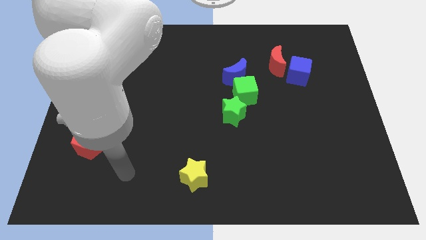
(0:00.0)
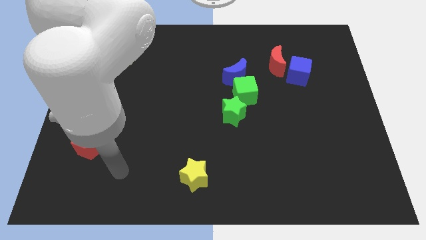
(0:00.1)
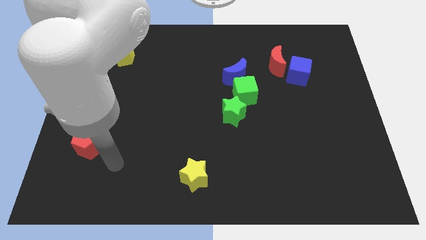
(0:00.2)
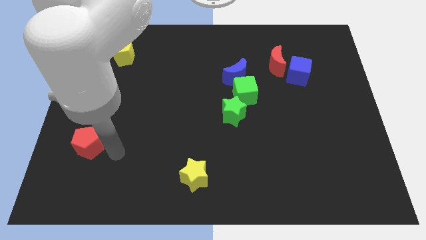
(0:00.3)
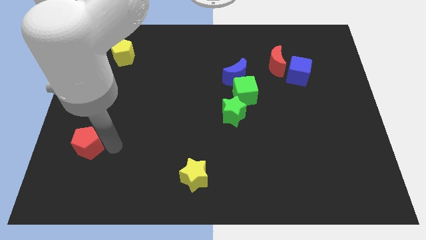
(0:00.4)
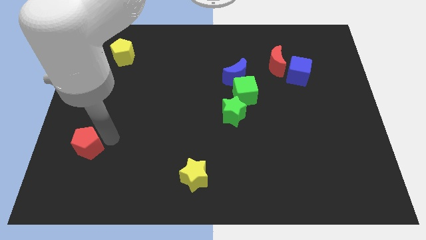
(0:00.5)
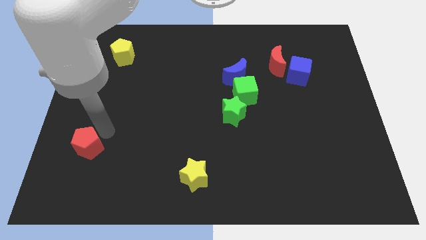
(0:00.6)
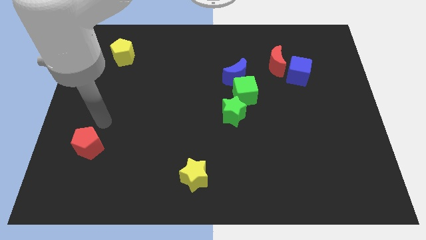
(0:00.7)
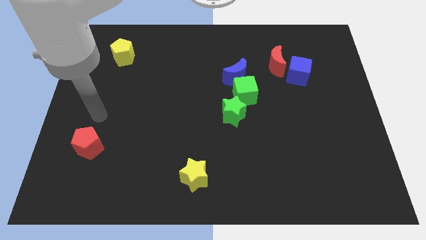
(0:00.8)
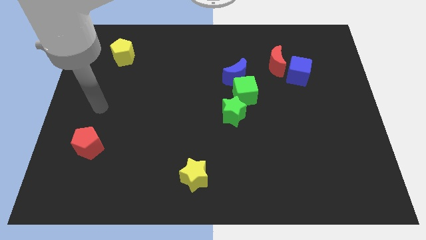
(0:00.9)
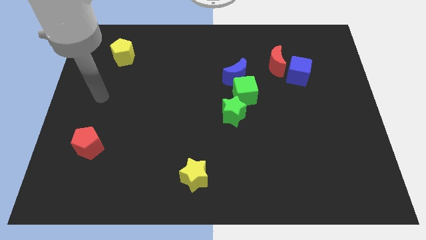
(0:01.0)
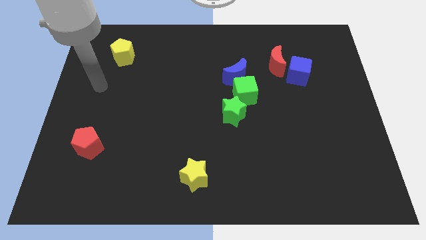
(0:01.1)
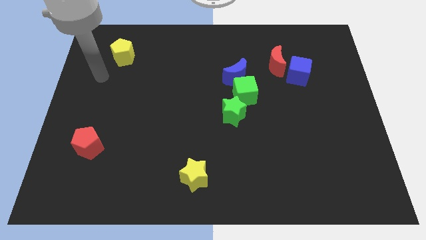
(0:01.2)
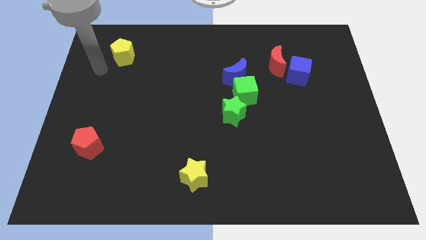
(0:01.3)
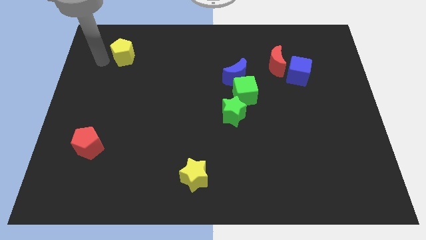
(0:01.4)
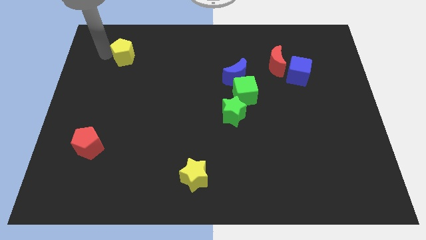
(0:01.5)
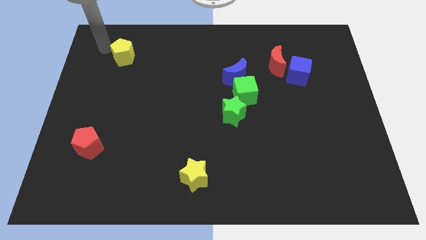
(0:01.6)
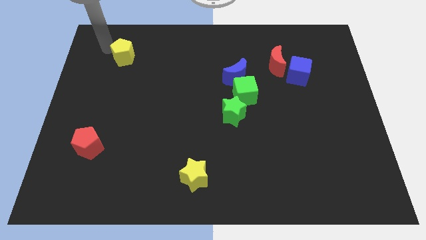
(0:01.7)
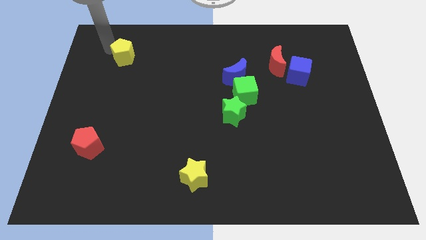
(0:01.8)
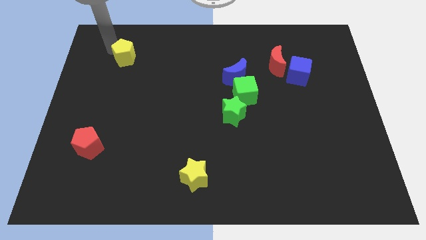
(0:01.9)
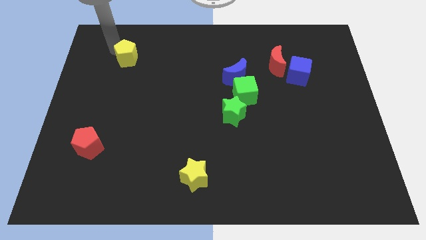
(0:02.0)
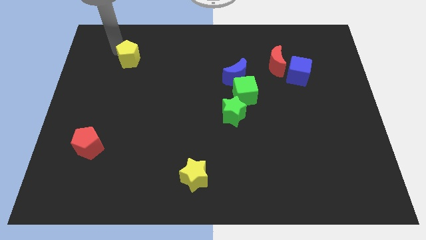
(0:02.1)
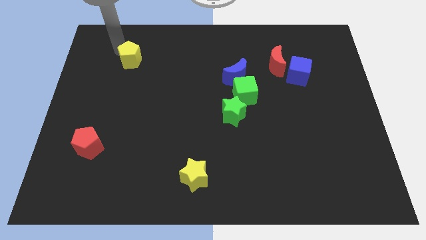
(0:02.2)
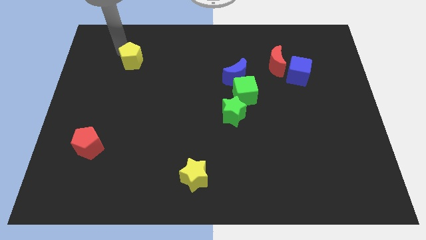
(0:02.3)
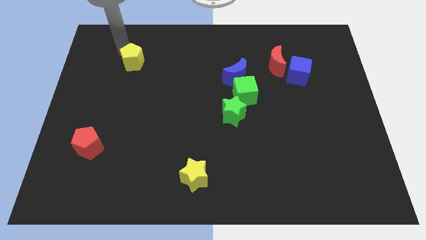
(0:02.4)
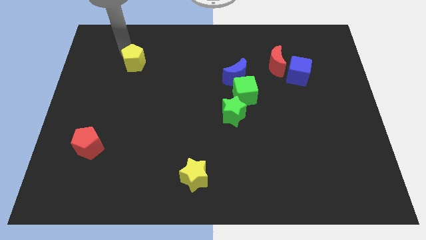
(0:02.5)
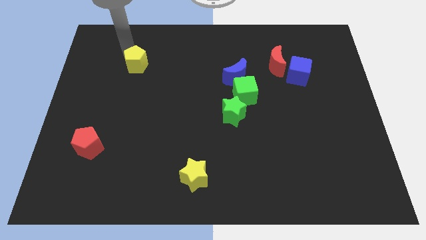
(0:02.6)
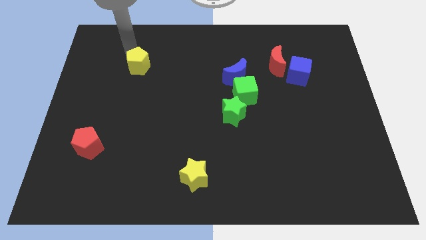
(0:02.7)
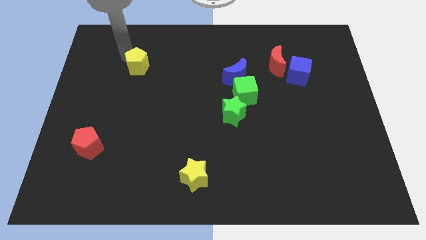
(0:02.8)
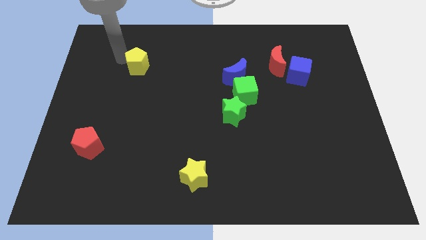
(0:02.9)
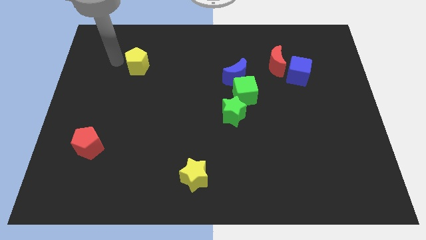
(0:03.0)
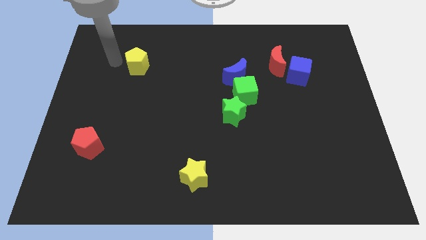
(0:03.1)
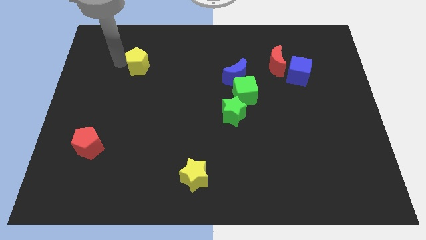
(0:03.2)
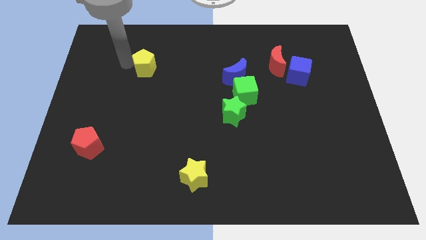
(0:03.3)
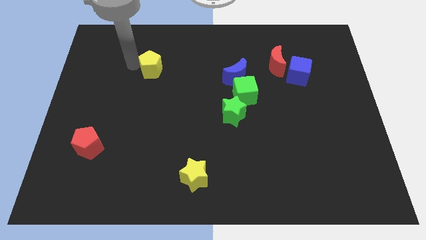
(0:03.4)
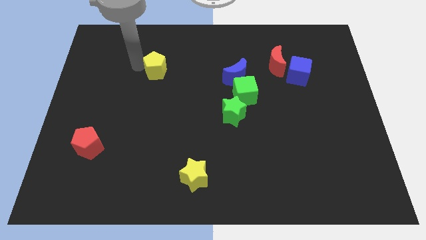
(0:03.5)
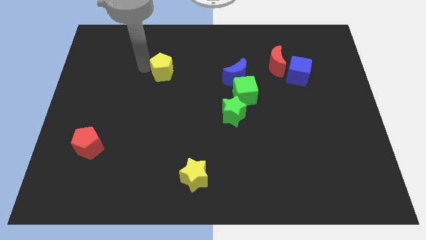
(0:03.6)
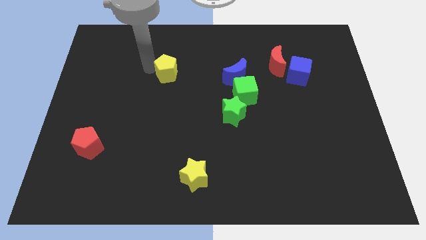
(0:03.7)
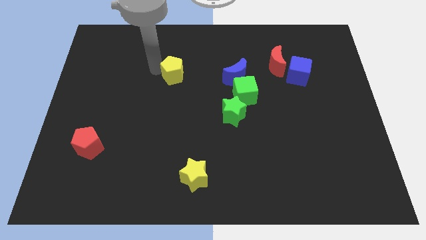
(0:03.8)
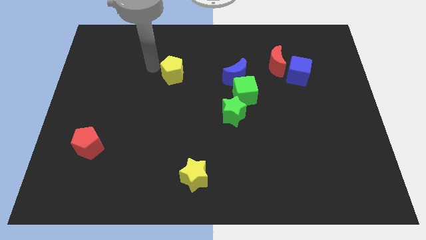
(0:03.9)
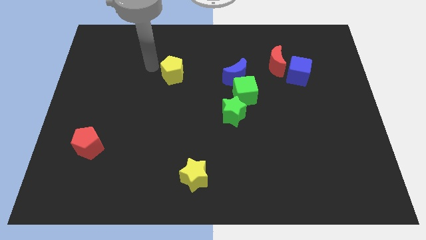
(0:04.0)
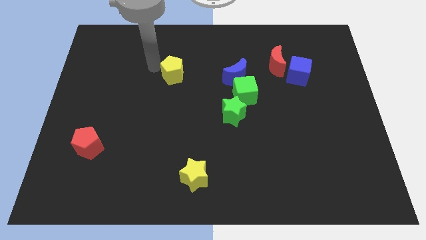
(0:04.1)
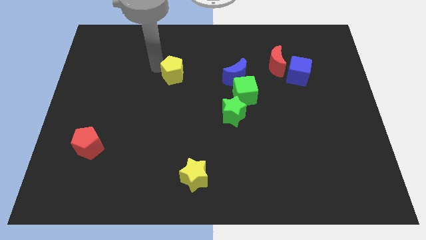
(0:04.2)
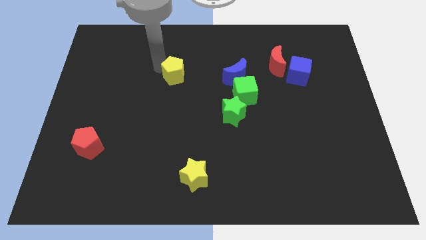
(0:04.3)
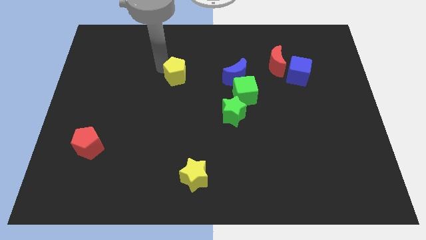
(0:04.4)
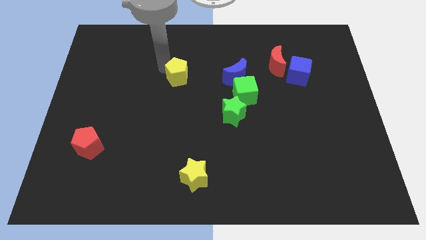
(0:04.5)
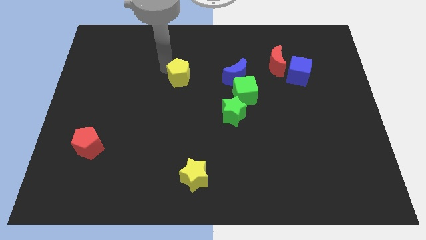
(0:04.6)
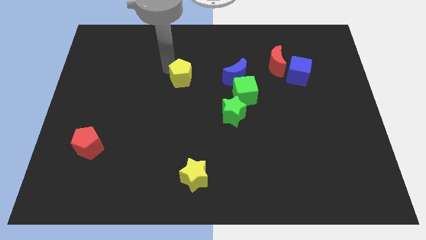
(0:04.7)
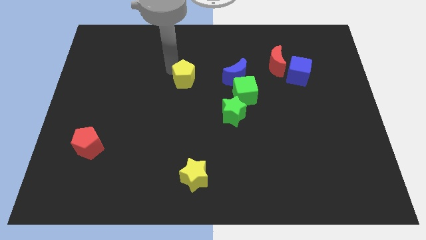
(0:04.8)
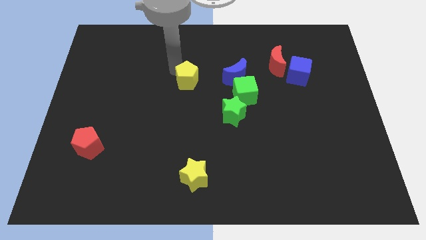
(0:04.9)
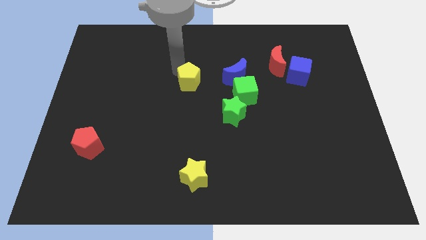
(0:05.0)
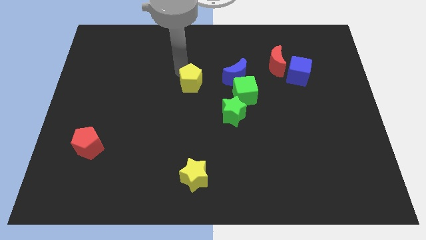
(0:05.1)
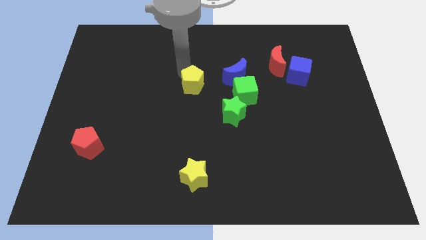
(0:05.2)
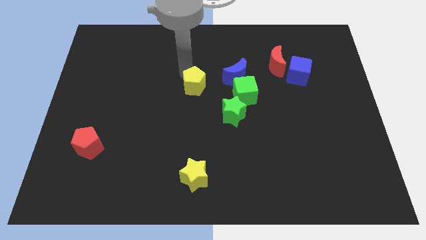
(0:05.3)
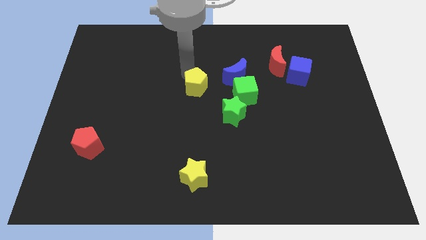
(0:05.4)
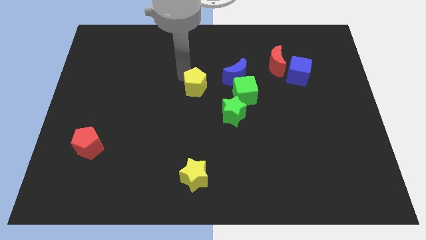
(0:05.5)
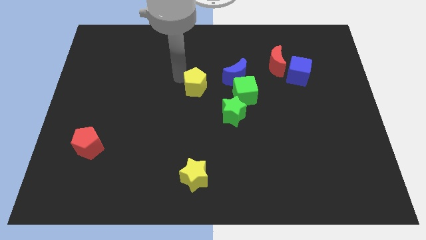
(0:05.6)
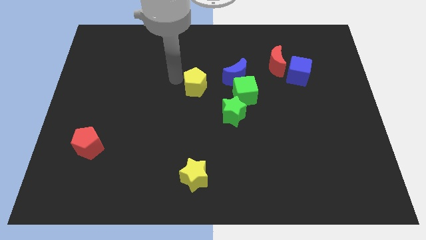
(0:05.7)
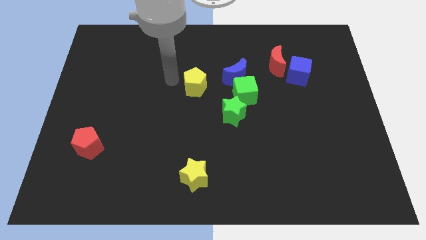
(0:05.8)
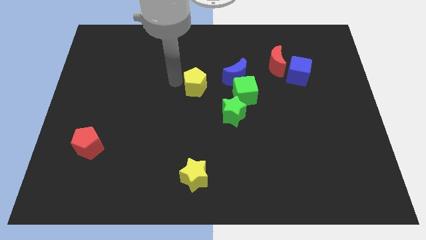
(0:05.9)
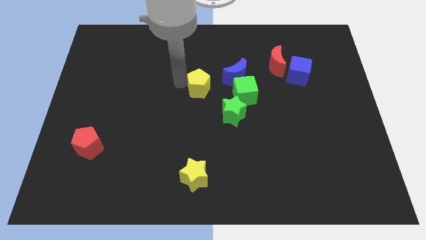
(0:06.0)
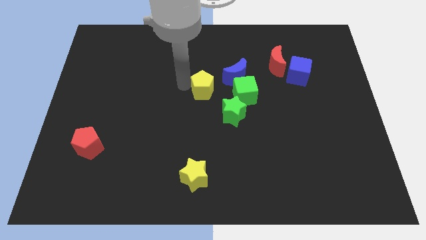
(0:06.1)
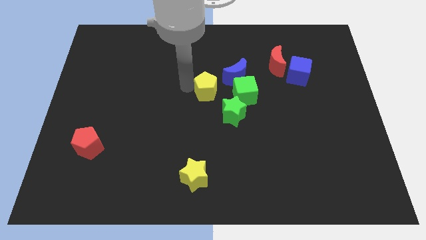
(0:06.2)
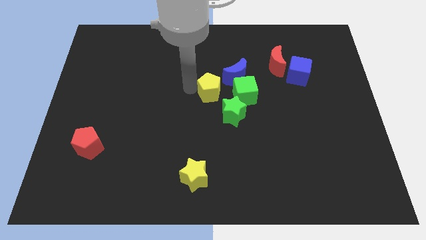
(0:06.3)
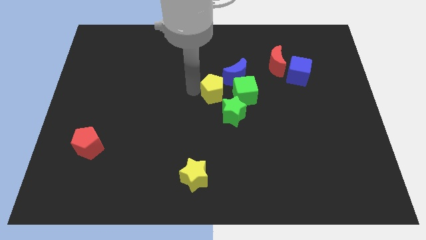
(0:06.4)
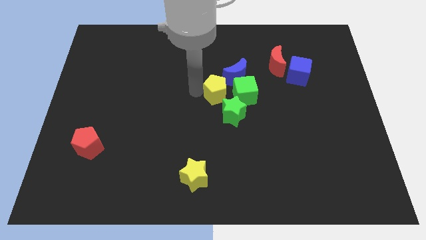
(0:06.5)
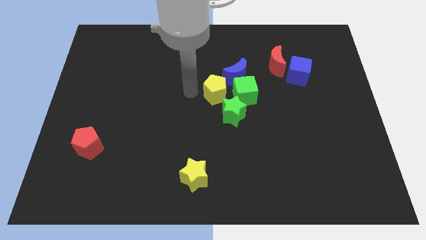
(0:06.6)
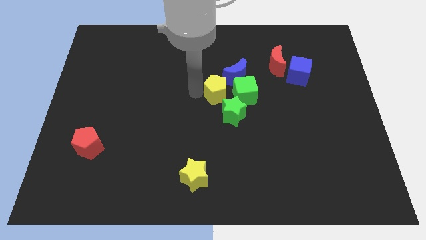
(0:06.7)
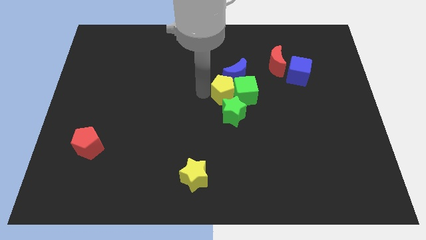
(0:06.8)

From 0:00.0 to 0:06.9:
push the yellow pentagon to the green cube
